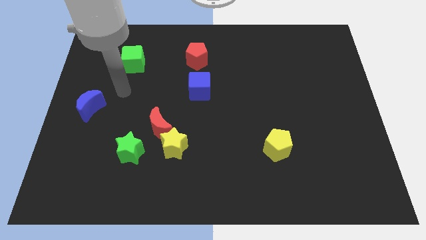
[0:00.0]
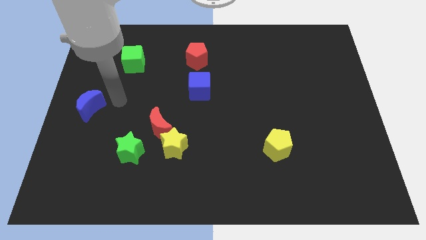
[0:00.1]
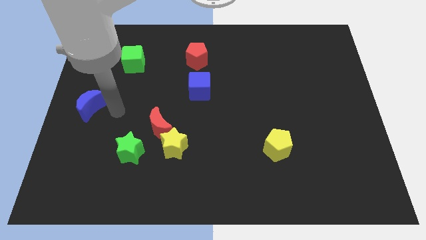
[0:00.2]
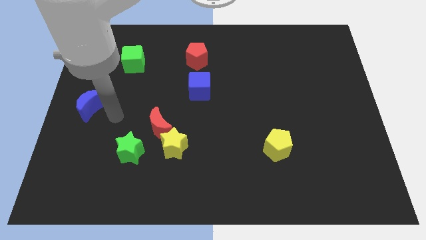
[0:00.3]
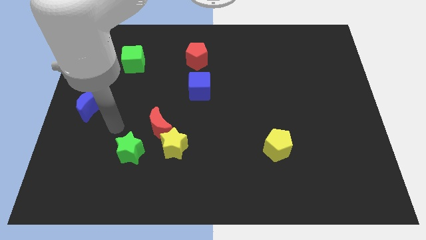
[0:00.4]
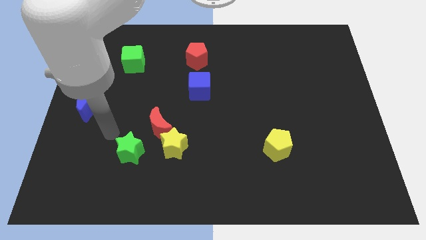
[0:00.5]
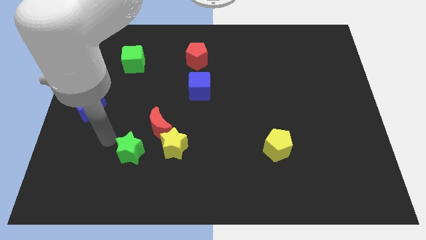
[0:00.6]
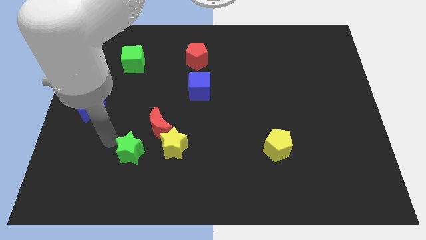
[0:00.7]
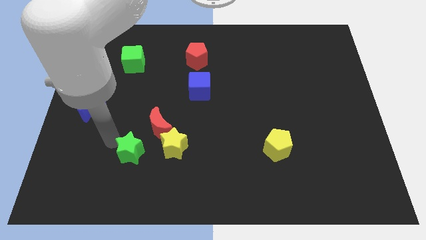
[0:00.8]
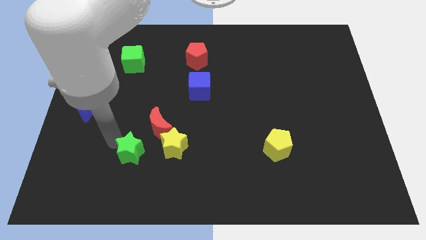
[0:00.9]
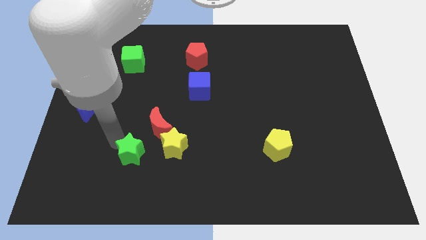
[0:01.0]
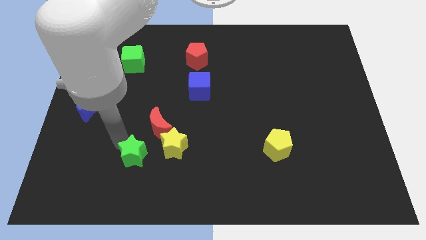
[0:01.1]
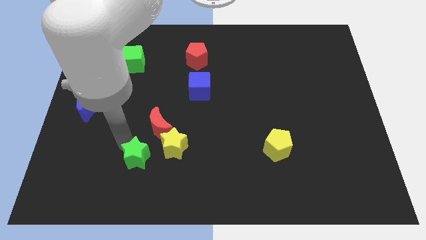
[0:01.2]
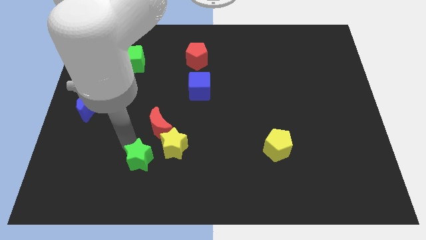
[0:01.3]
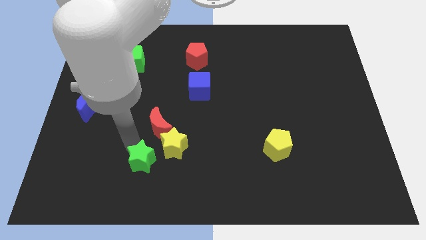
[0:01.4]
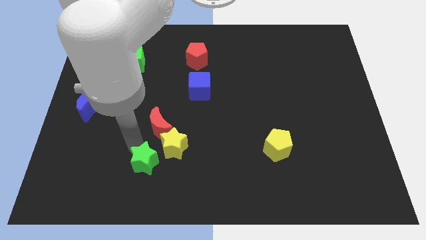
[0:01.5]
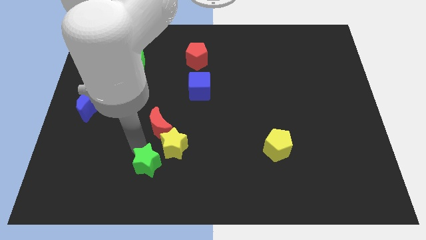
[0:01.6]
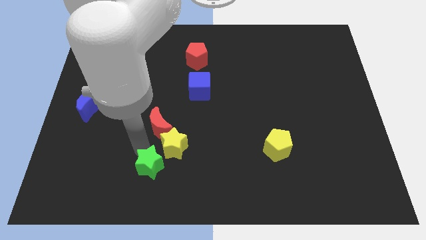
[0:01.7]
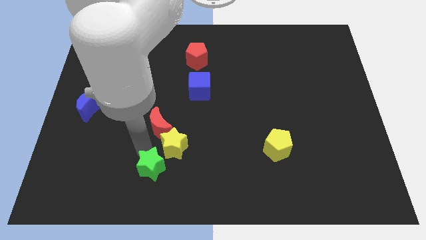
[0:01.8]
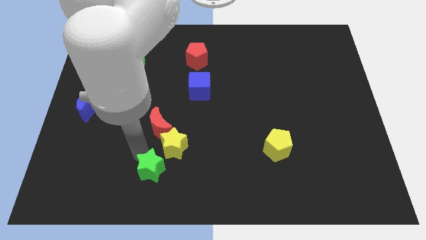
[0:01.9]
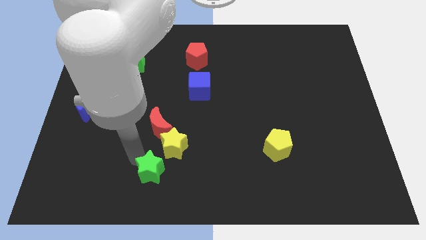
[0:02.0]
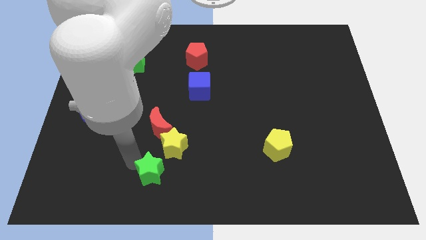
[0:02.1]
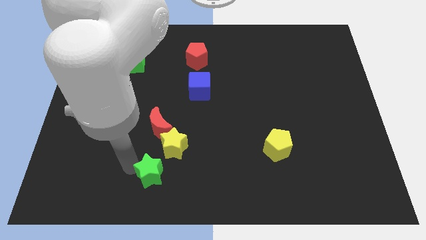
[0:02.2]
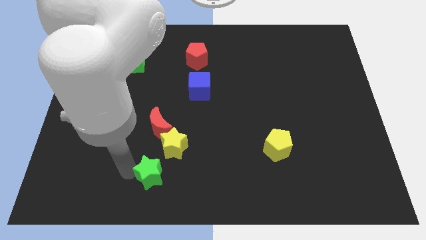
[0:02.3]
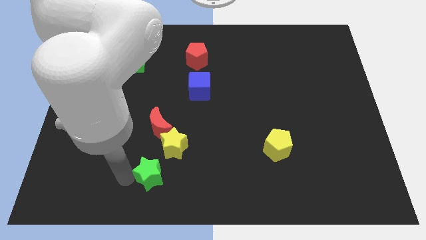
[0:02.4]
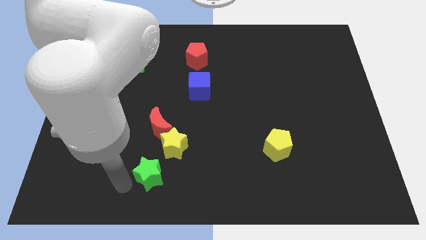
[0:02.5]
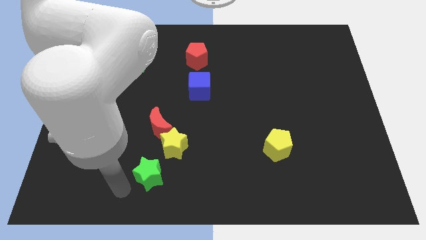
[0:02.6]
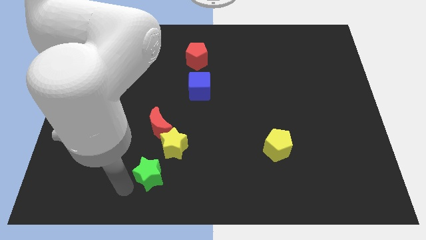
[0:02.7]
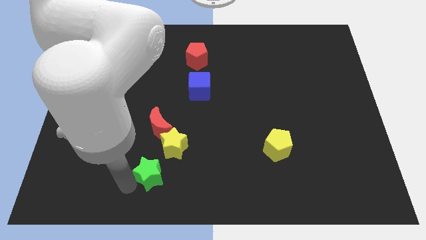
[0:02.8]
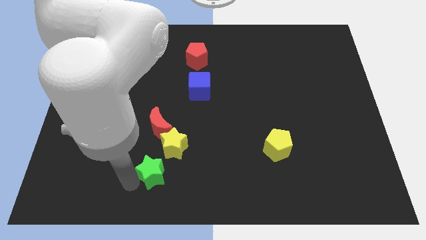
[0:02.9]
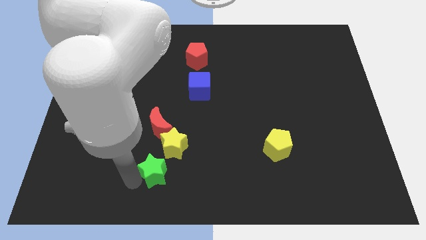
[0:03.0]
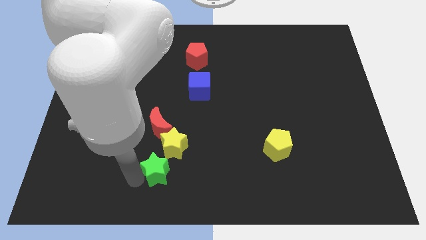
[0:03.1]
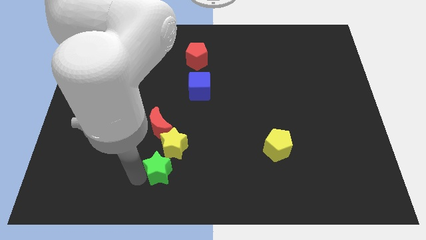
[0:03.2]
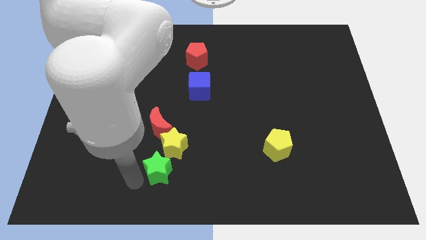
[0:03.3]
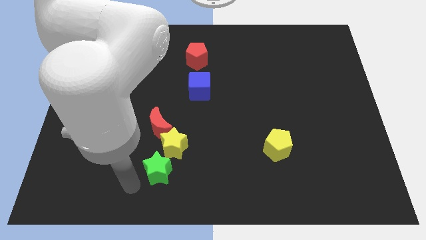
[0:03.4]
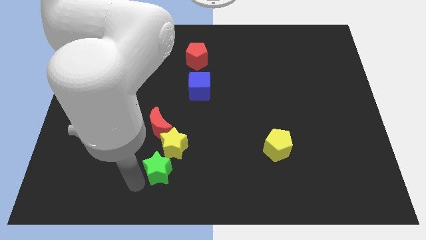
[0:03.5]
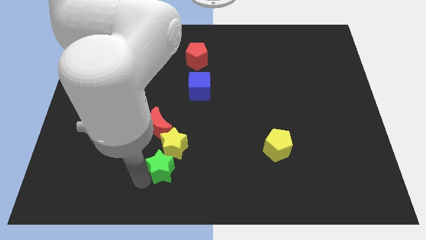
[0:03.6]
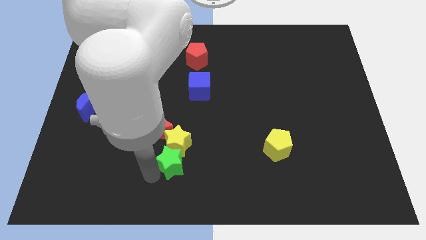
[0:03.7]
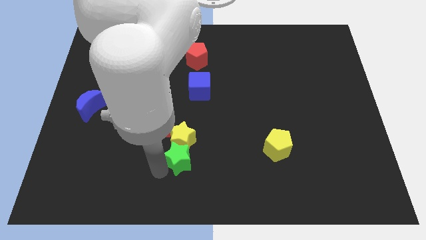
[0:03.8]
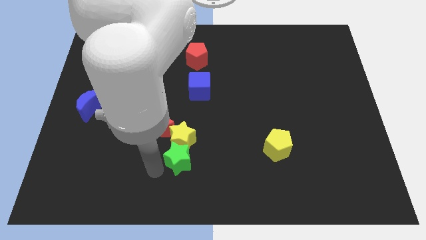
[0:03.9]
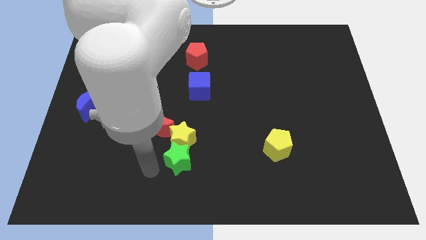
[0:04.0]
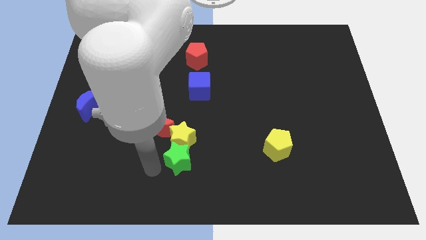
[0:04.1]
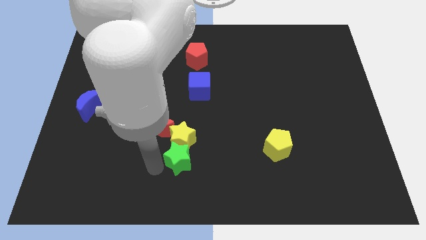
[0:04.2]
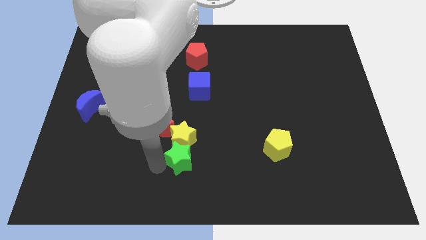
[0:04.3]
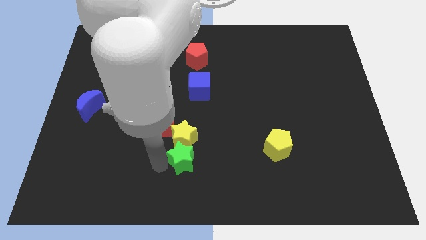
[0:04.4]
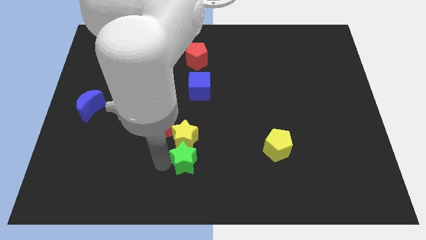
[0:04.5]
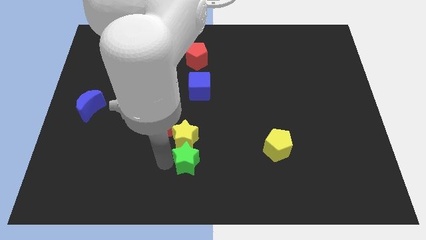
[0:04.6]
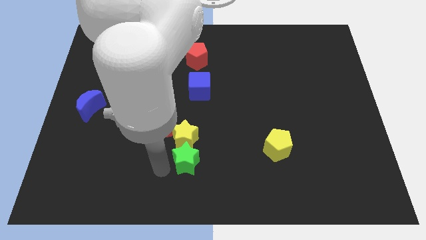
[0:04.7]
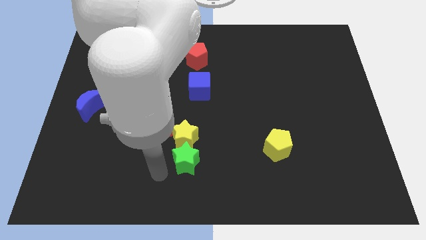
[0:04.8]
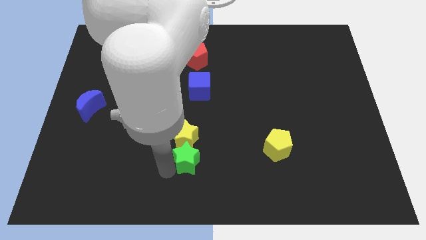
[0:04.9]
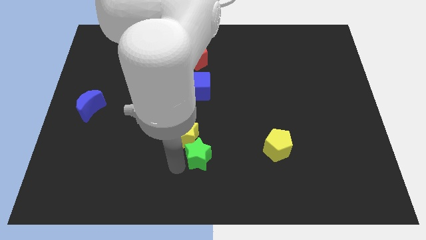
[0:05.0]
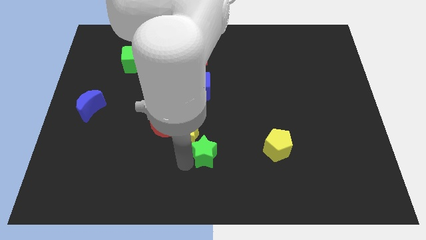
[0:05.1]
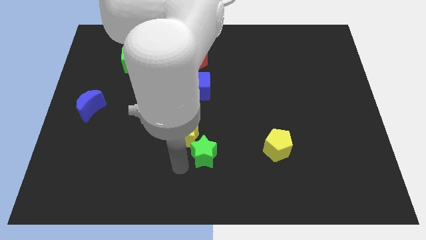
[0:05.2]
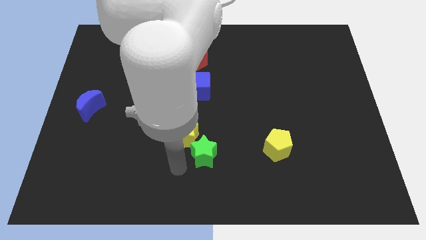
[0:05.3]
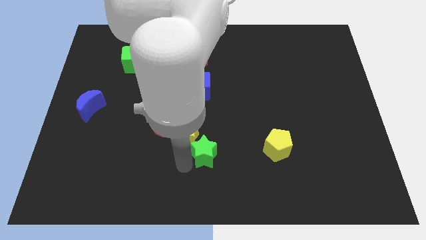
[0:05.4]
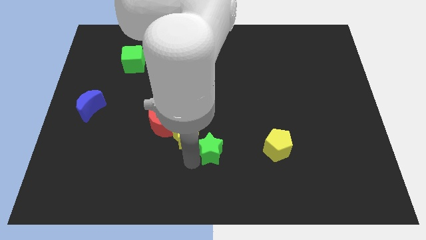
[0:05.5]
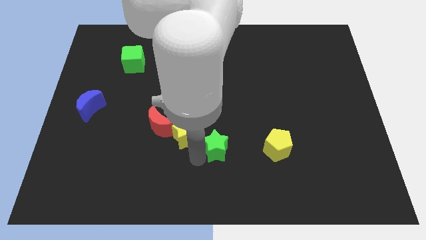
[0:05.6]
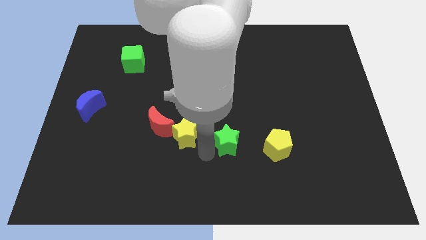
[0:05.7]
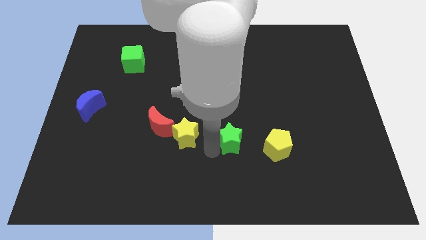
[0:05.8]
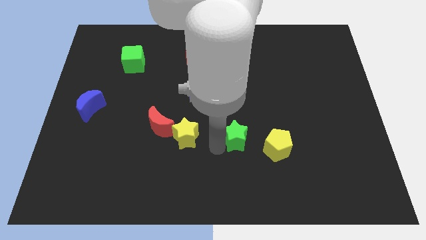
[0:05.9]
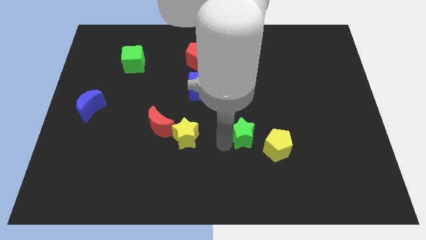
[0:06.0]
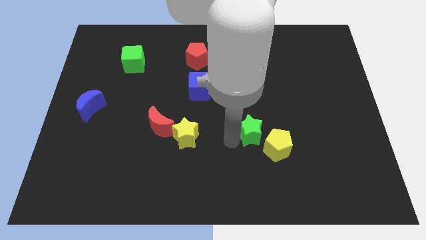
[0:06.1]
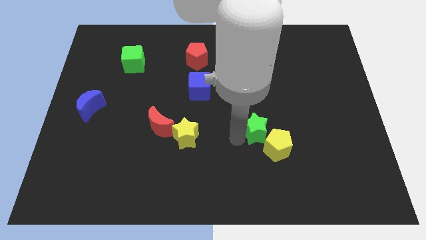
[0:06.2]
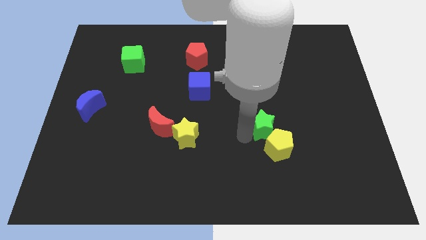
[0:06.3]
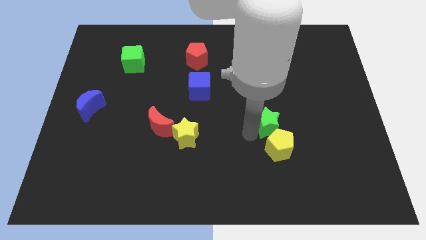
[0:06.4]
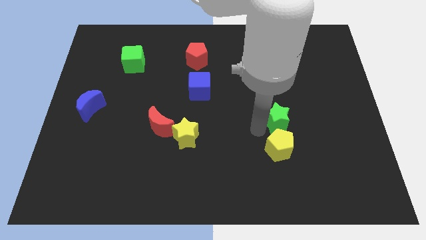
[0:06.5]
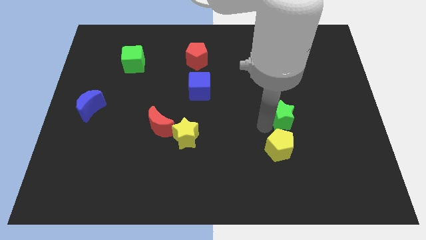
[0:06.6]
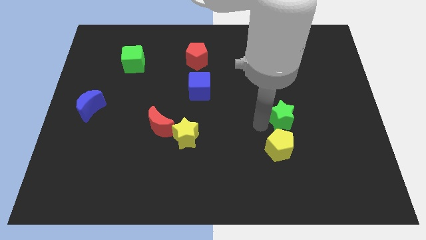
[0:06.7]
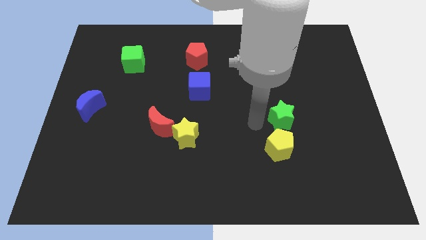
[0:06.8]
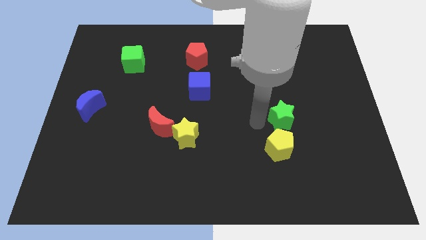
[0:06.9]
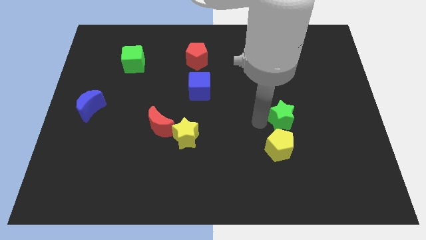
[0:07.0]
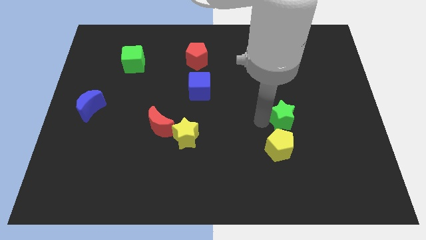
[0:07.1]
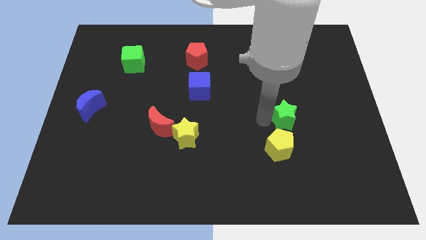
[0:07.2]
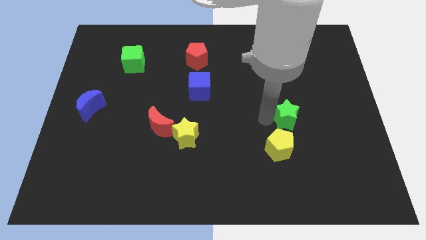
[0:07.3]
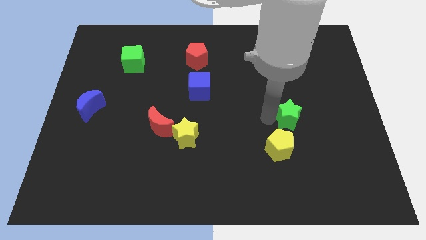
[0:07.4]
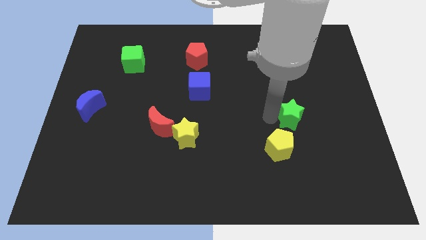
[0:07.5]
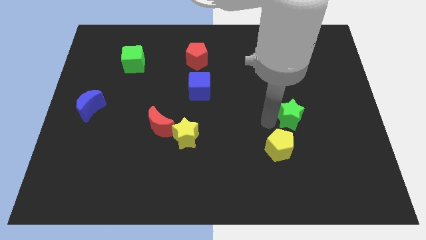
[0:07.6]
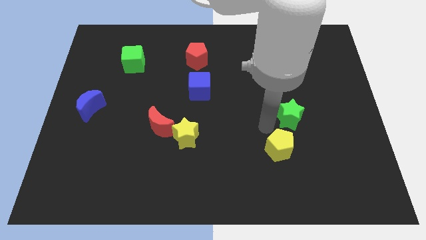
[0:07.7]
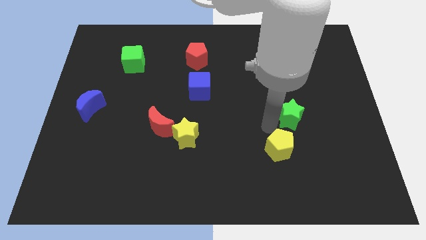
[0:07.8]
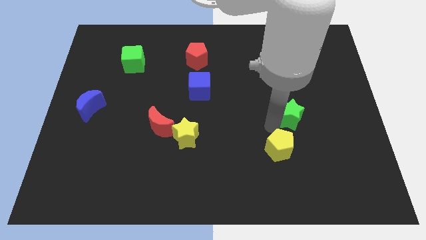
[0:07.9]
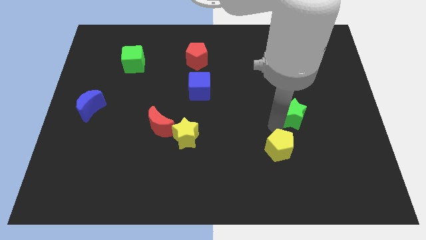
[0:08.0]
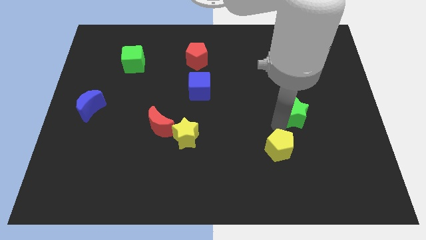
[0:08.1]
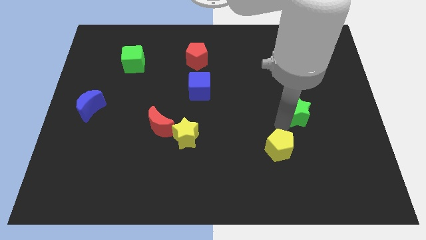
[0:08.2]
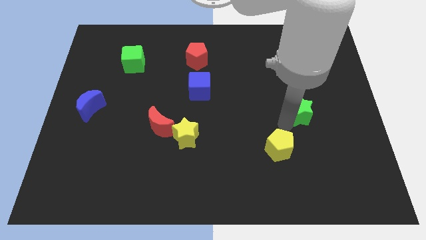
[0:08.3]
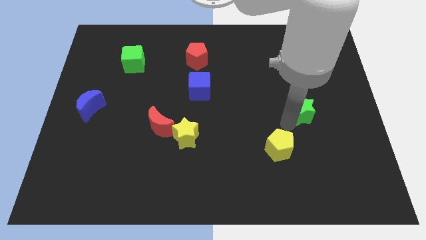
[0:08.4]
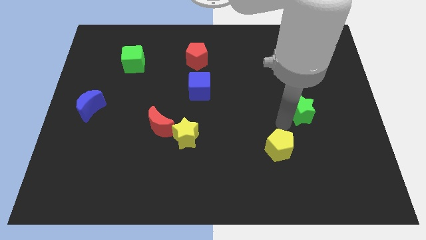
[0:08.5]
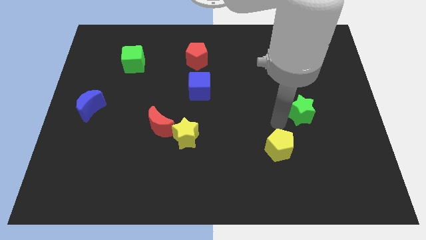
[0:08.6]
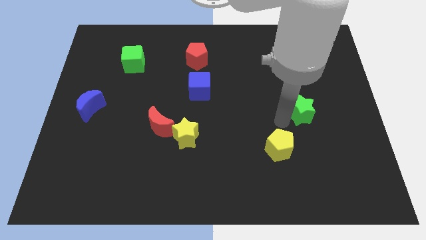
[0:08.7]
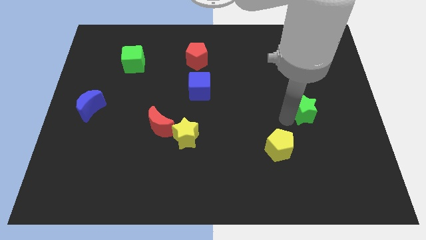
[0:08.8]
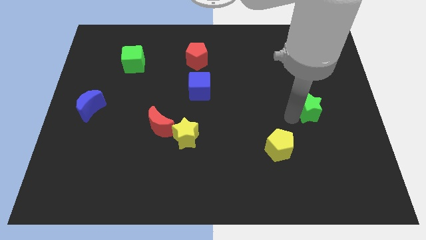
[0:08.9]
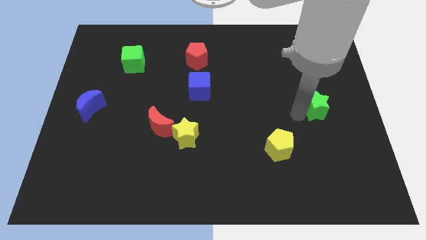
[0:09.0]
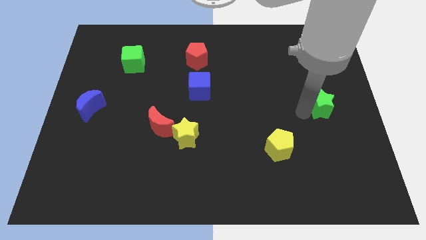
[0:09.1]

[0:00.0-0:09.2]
put the green star to the center right
